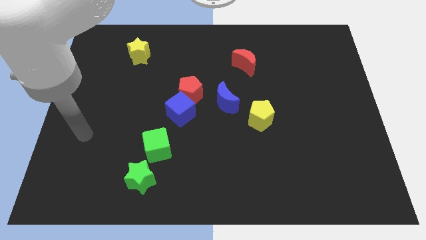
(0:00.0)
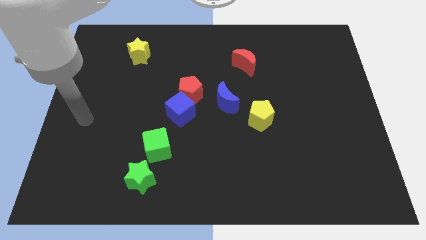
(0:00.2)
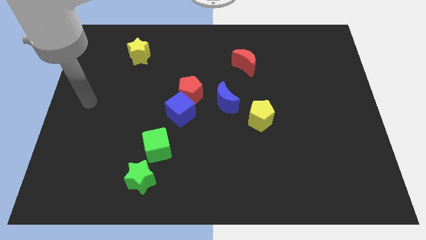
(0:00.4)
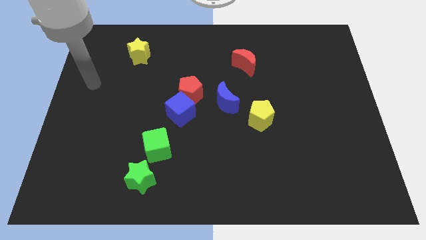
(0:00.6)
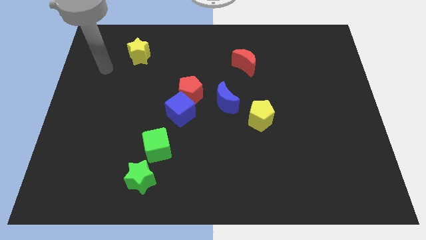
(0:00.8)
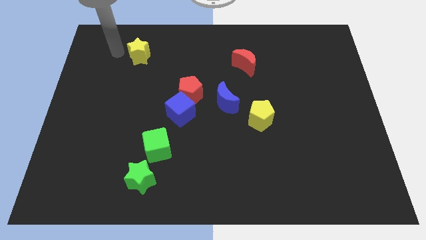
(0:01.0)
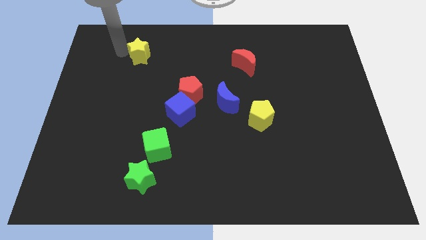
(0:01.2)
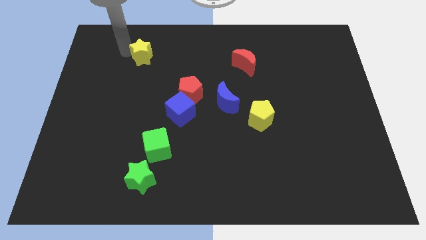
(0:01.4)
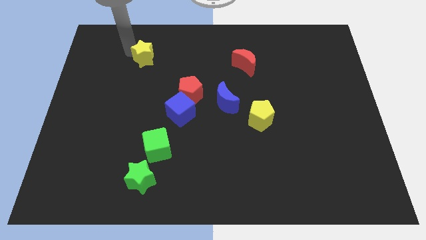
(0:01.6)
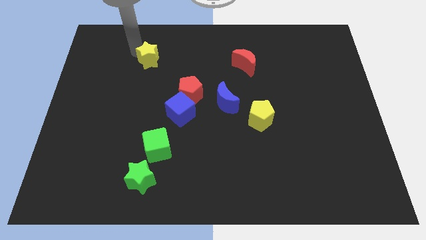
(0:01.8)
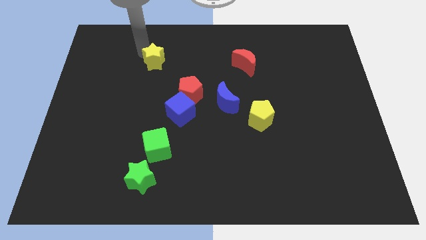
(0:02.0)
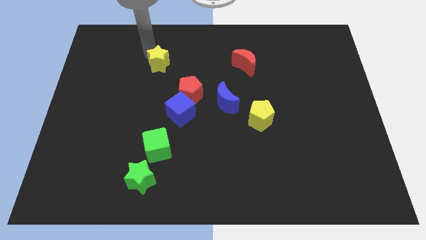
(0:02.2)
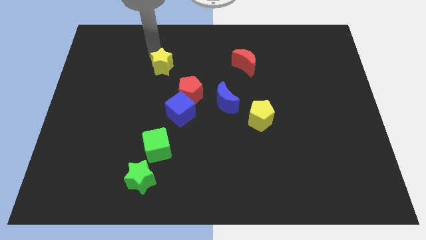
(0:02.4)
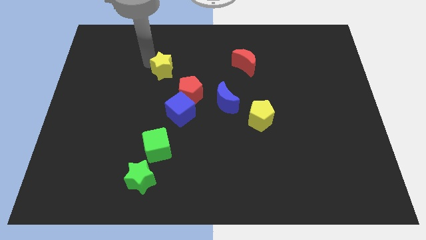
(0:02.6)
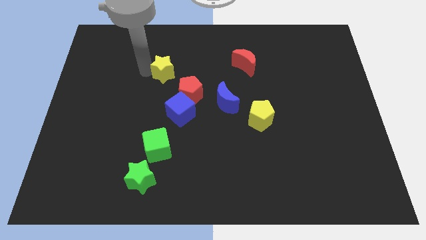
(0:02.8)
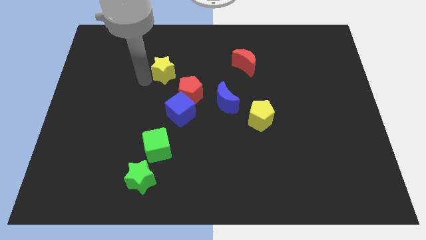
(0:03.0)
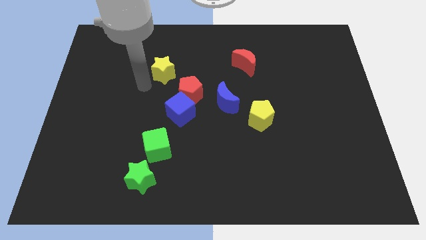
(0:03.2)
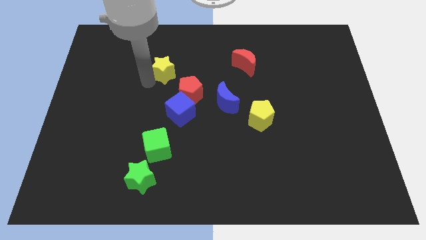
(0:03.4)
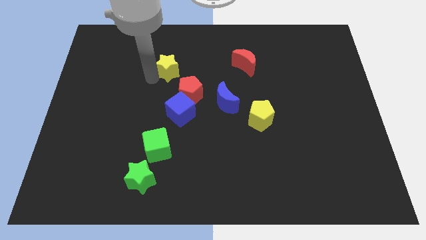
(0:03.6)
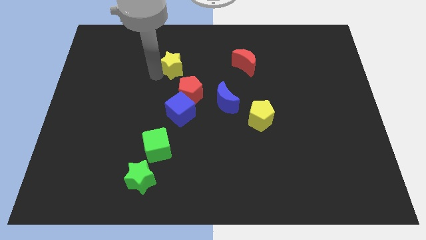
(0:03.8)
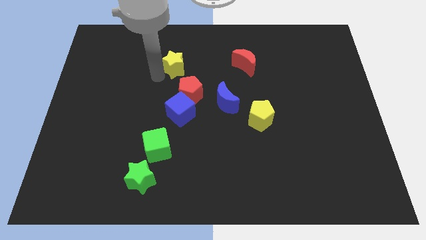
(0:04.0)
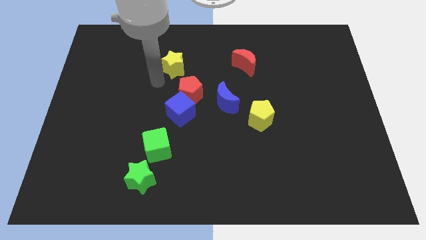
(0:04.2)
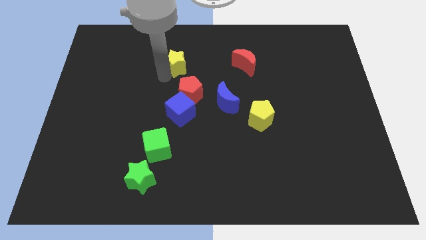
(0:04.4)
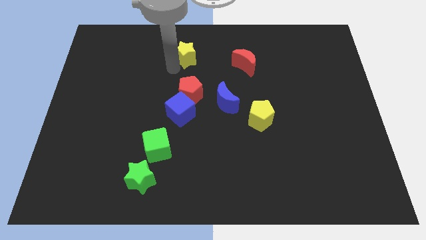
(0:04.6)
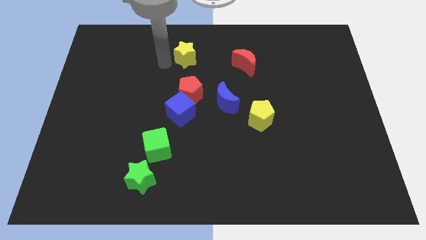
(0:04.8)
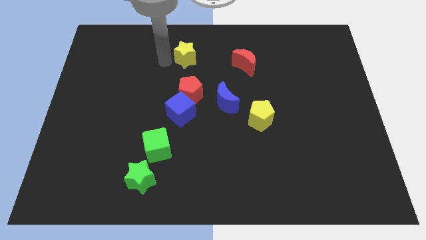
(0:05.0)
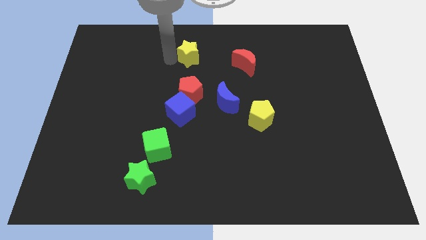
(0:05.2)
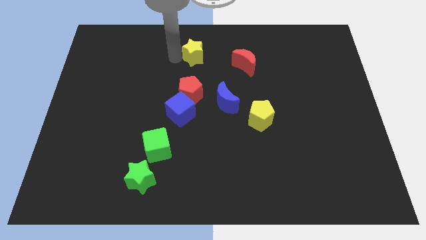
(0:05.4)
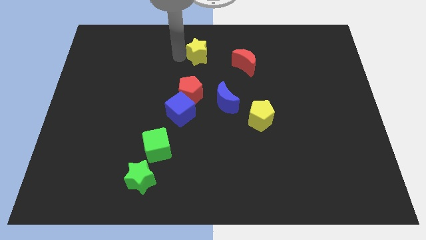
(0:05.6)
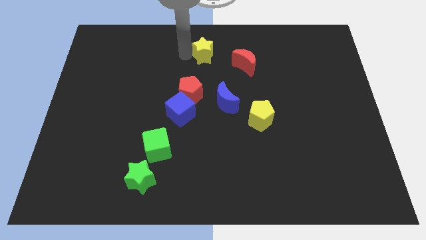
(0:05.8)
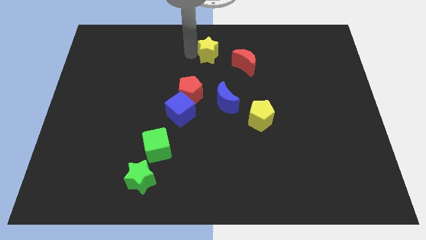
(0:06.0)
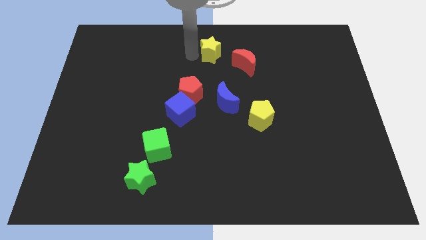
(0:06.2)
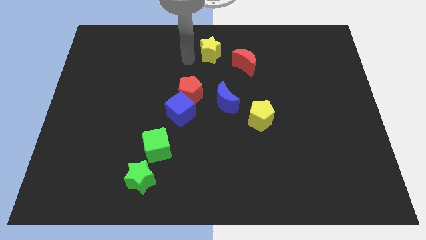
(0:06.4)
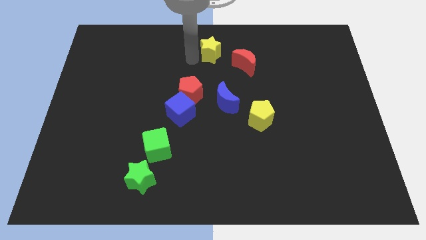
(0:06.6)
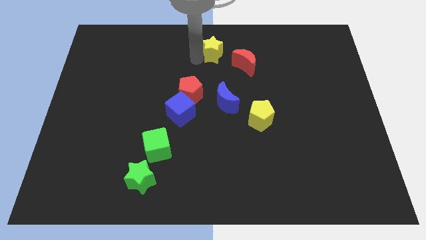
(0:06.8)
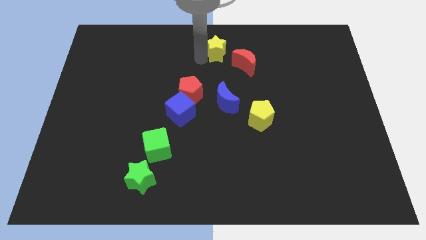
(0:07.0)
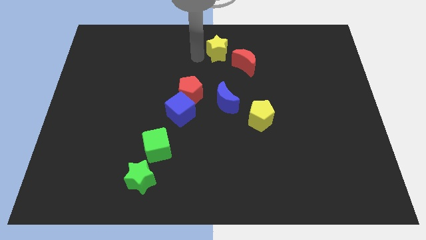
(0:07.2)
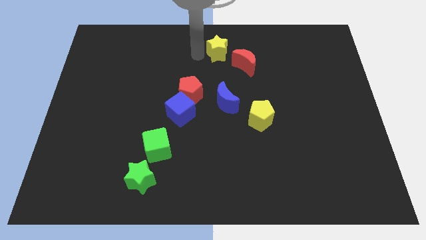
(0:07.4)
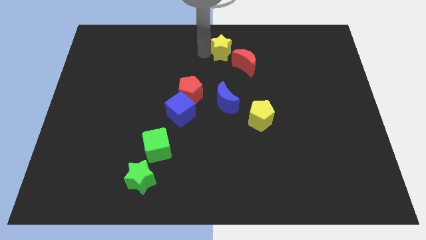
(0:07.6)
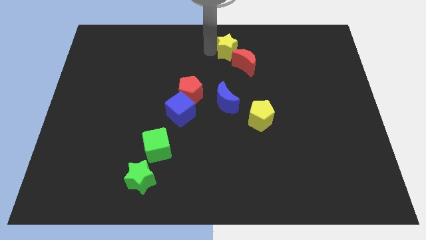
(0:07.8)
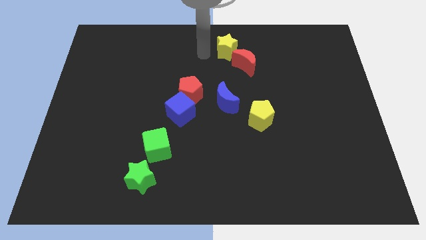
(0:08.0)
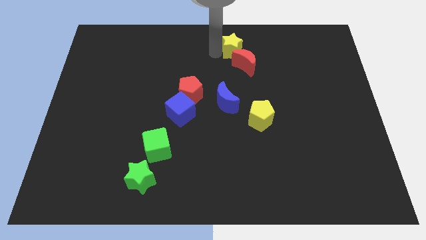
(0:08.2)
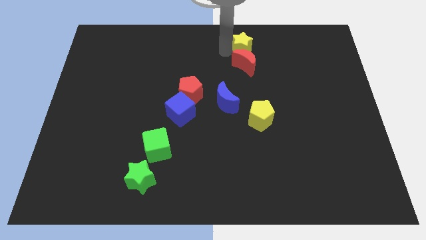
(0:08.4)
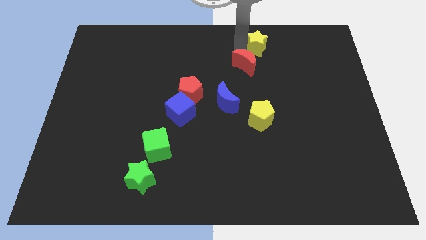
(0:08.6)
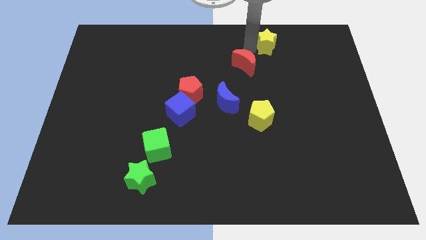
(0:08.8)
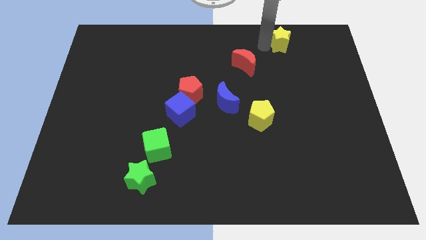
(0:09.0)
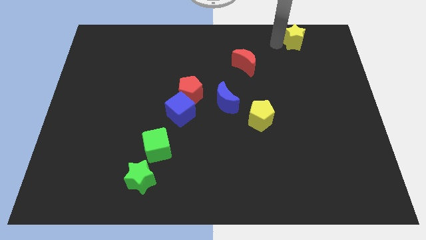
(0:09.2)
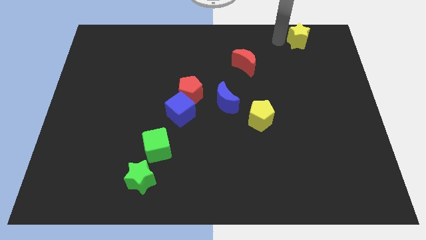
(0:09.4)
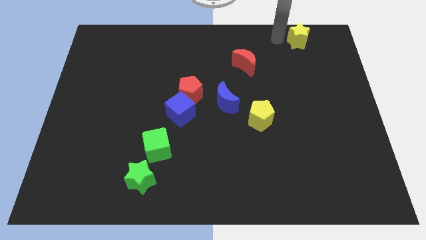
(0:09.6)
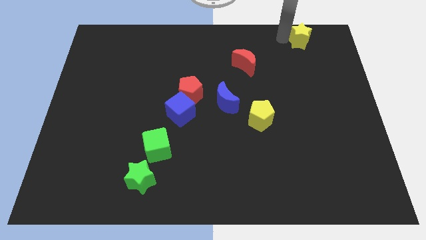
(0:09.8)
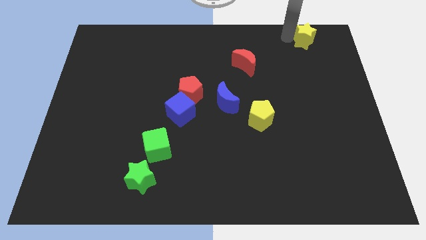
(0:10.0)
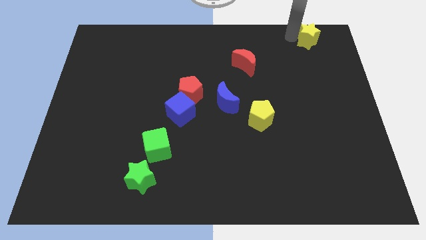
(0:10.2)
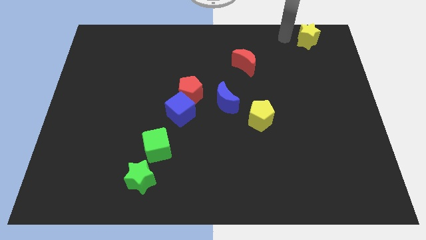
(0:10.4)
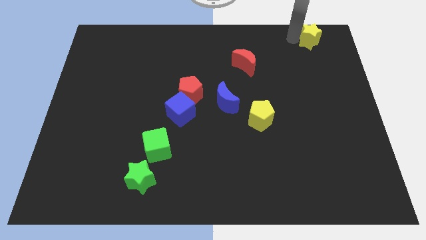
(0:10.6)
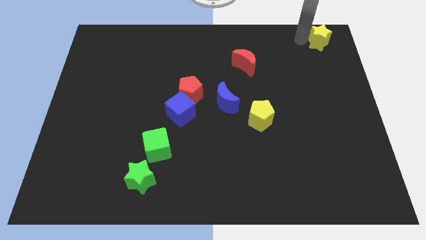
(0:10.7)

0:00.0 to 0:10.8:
push the yellow star to the top right
